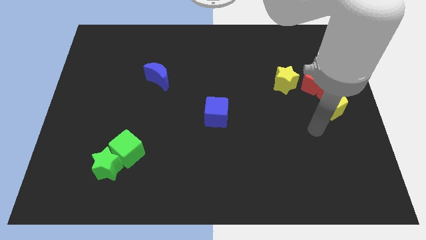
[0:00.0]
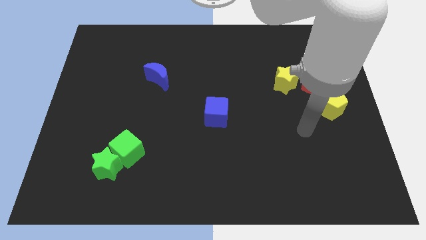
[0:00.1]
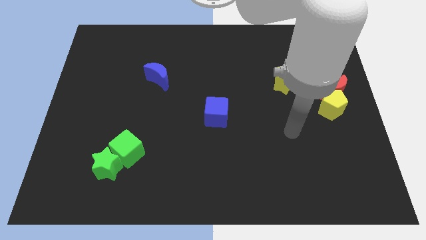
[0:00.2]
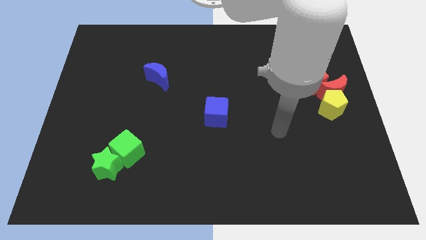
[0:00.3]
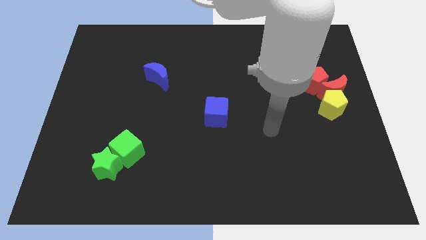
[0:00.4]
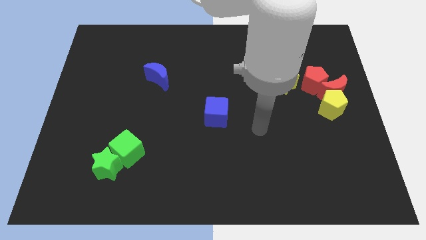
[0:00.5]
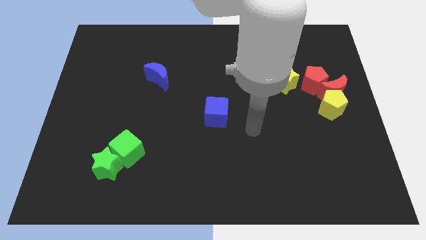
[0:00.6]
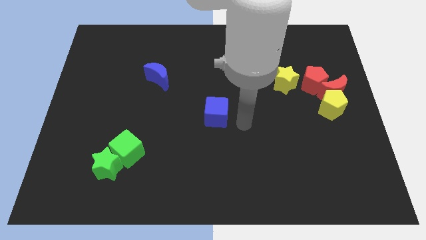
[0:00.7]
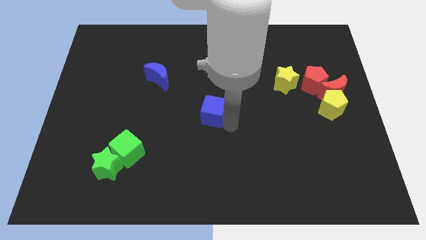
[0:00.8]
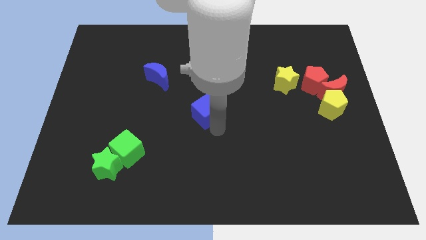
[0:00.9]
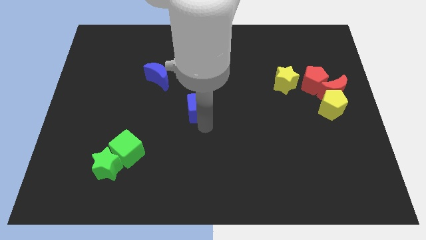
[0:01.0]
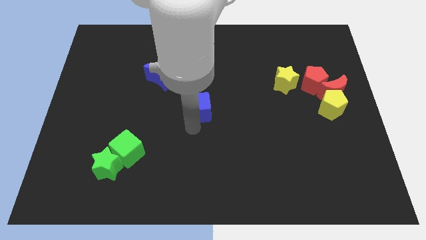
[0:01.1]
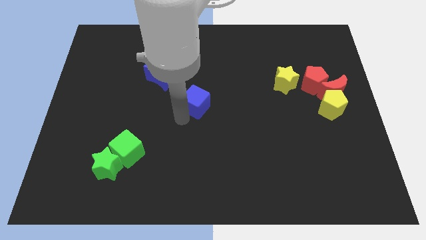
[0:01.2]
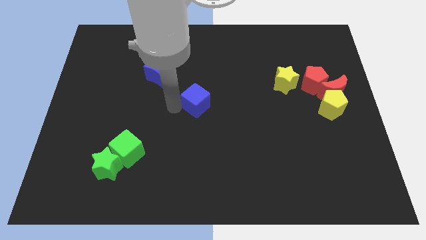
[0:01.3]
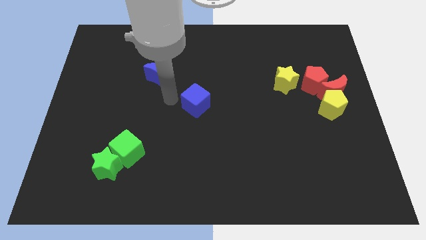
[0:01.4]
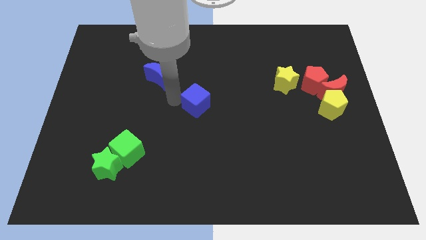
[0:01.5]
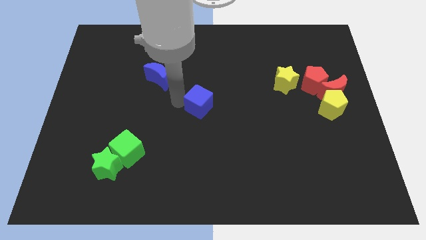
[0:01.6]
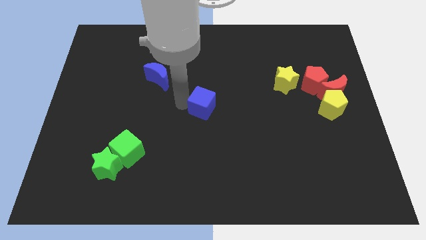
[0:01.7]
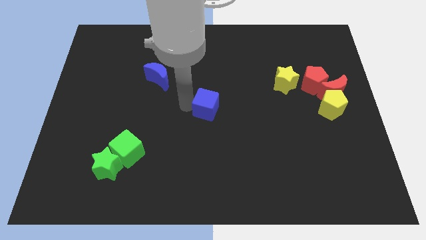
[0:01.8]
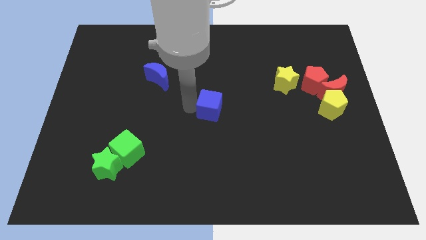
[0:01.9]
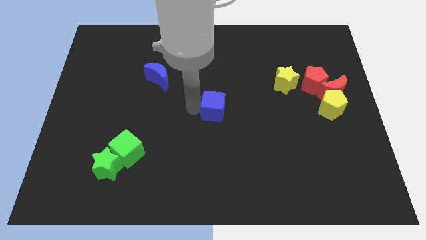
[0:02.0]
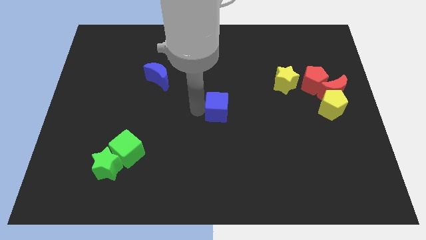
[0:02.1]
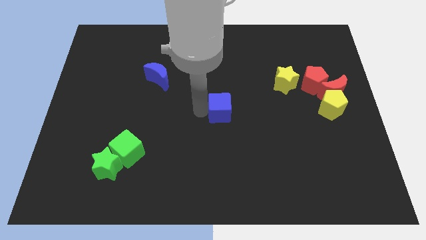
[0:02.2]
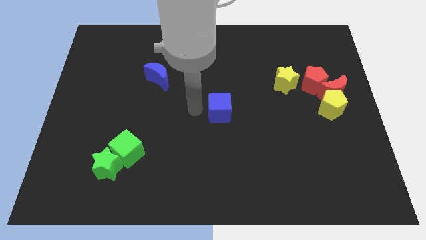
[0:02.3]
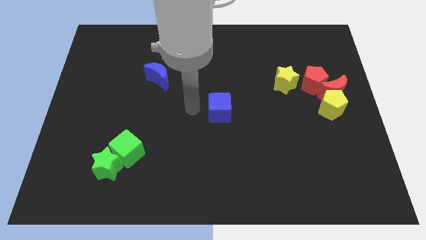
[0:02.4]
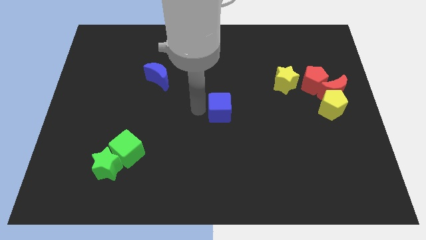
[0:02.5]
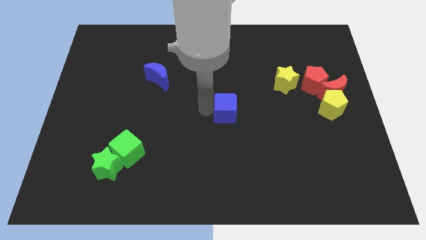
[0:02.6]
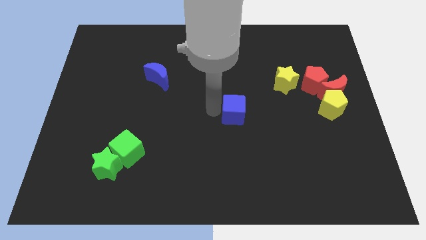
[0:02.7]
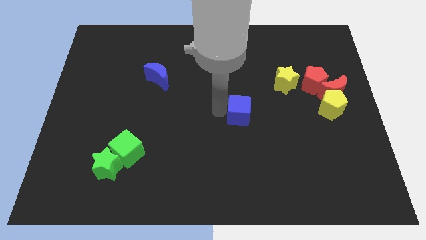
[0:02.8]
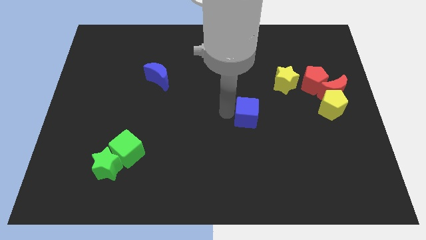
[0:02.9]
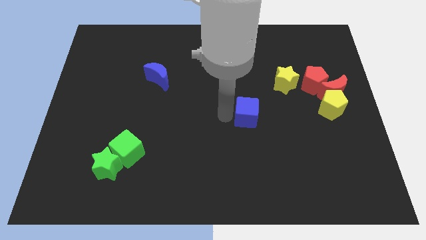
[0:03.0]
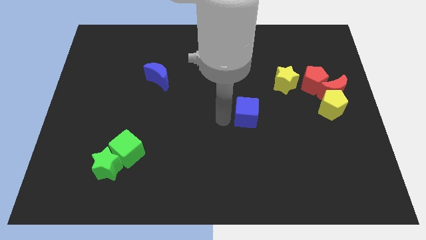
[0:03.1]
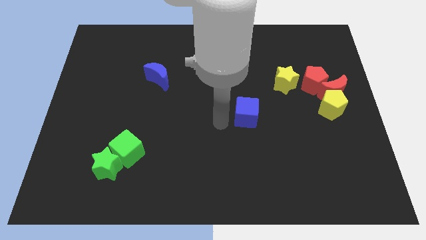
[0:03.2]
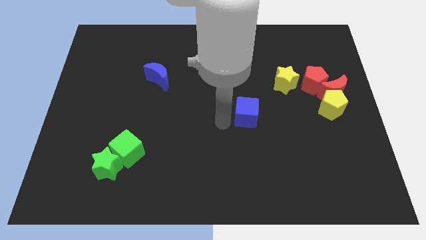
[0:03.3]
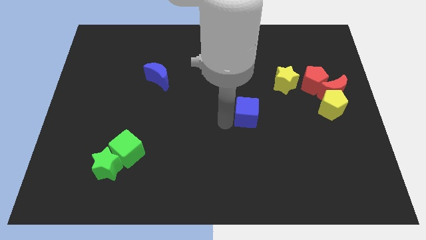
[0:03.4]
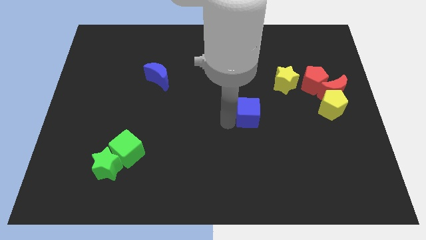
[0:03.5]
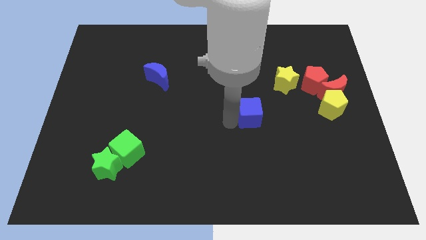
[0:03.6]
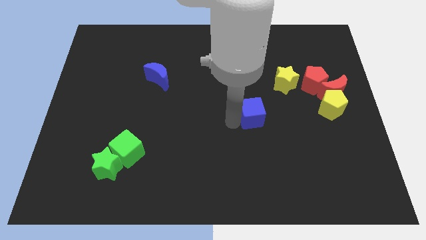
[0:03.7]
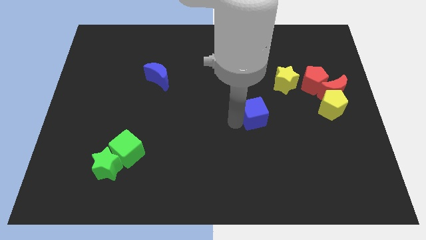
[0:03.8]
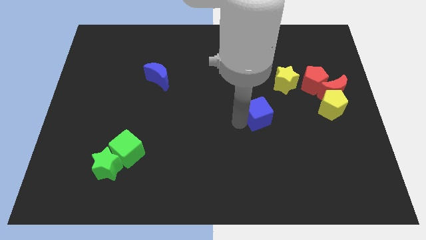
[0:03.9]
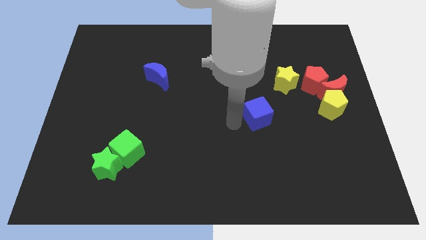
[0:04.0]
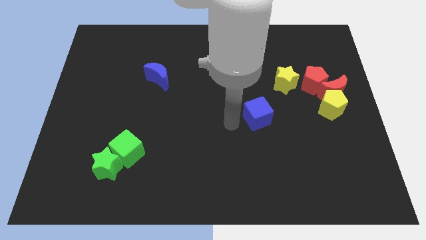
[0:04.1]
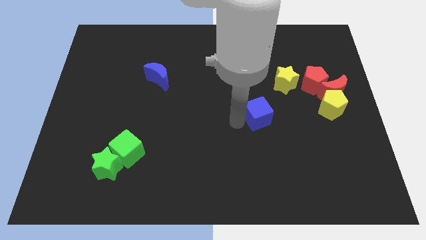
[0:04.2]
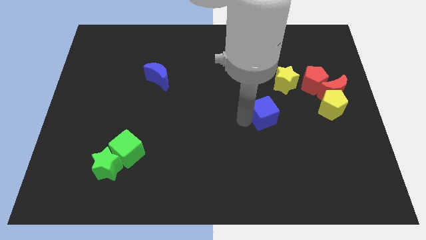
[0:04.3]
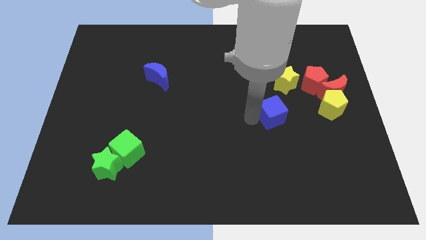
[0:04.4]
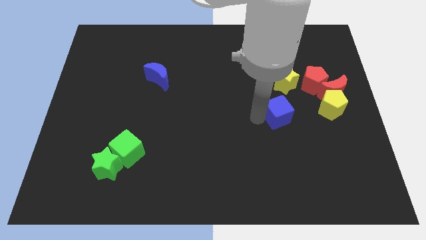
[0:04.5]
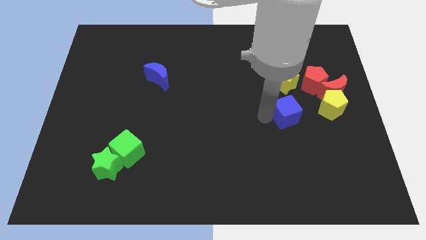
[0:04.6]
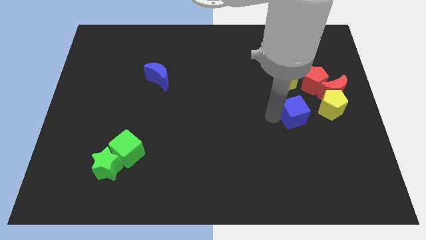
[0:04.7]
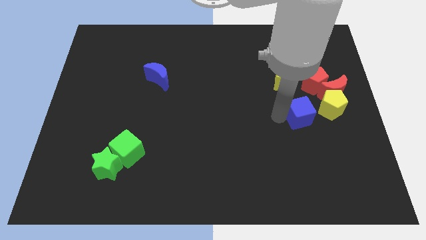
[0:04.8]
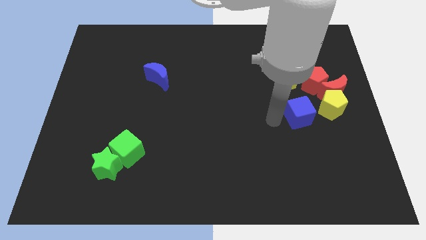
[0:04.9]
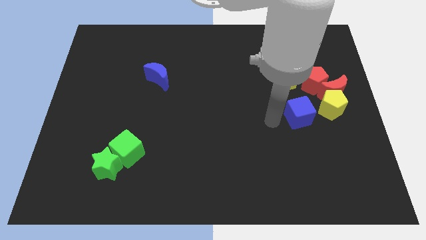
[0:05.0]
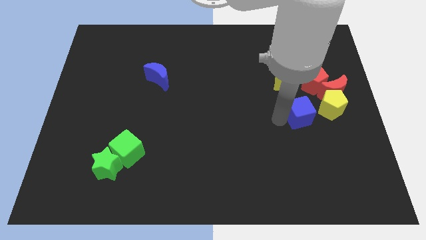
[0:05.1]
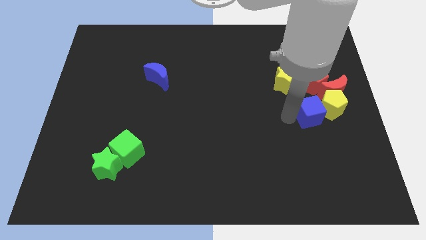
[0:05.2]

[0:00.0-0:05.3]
move the blue cube close to the yellow pentagon

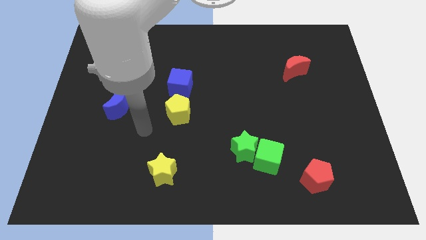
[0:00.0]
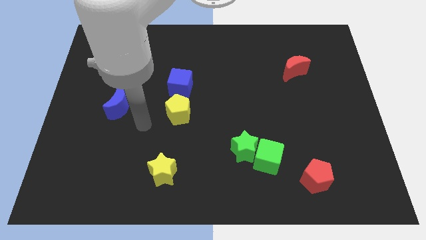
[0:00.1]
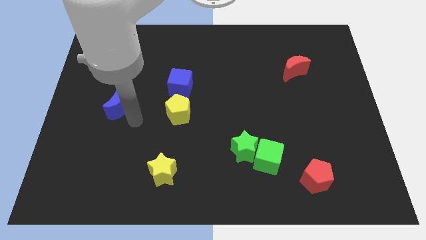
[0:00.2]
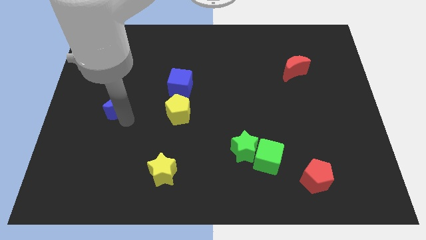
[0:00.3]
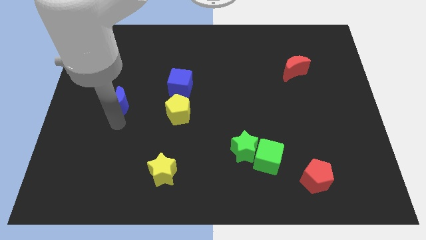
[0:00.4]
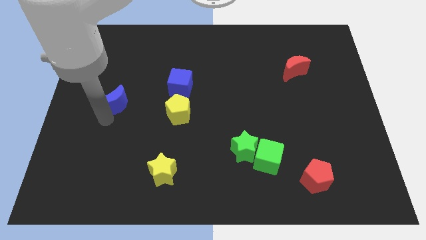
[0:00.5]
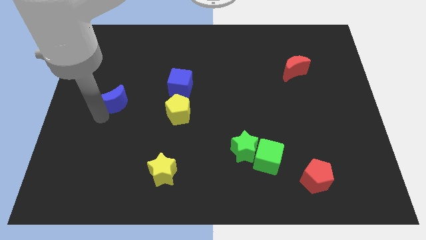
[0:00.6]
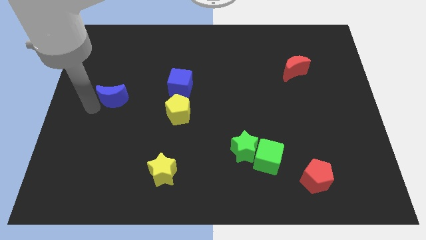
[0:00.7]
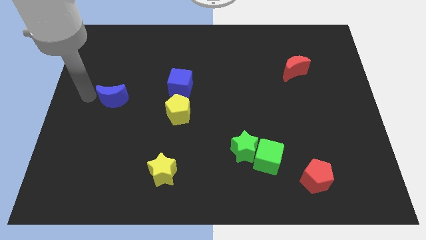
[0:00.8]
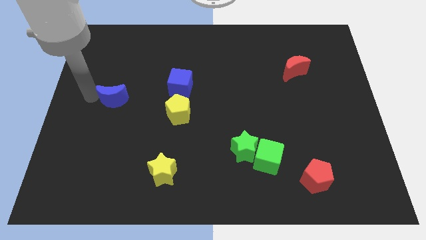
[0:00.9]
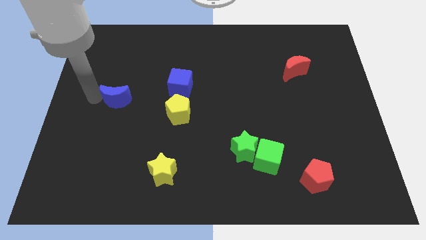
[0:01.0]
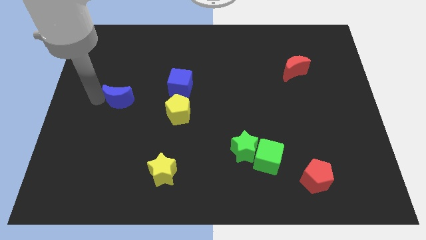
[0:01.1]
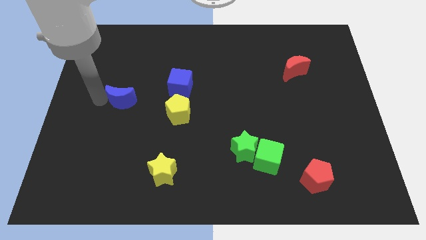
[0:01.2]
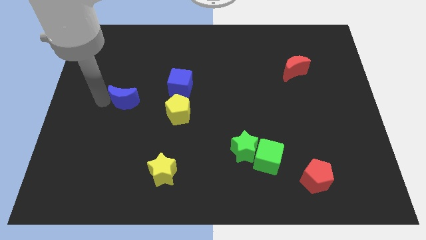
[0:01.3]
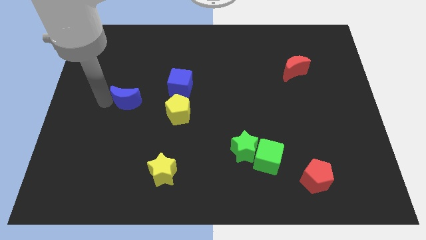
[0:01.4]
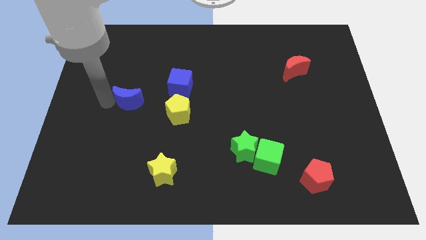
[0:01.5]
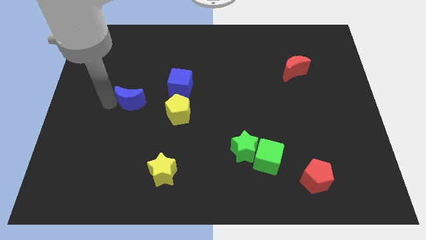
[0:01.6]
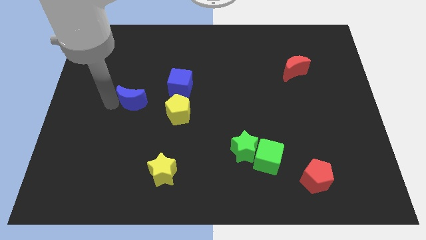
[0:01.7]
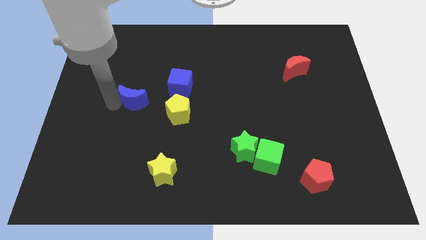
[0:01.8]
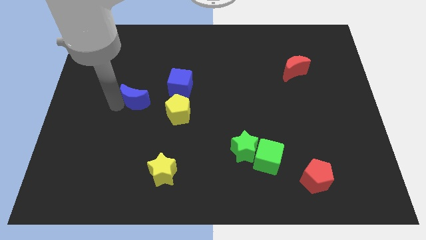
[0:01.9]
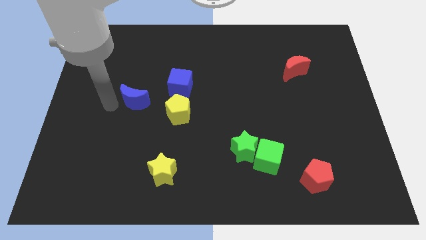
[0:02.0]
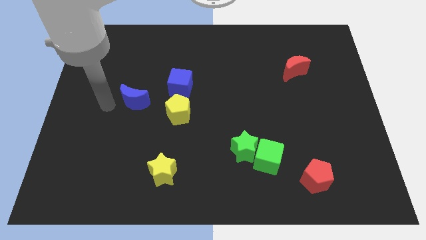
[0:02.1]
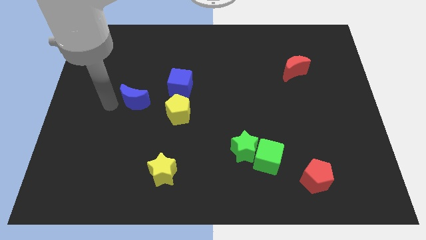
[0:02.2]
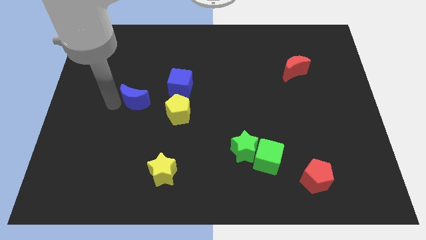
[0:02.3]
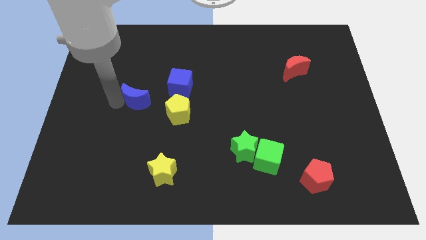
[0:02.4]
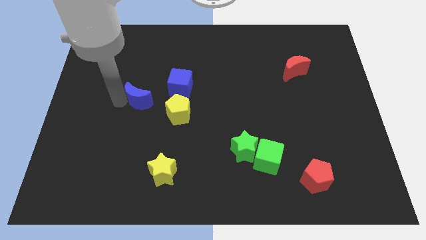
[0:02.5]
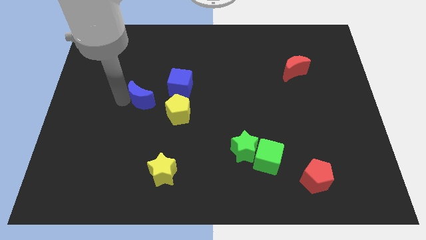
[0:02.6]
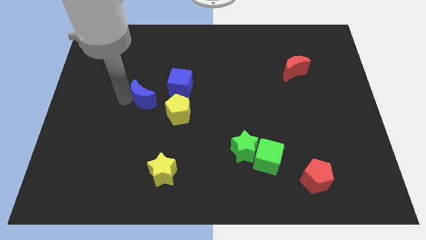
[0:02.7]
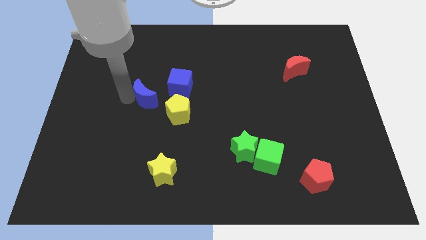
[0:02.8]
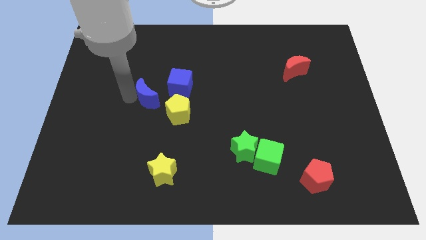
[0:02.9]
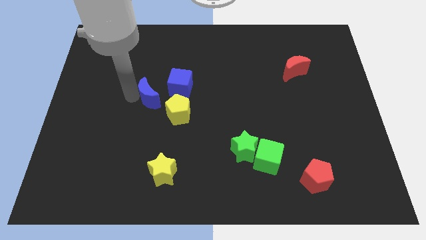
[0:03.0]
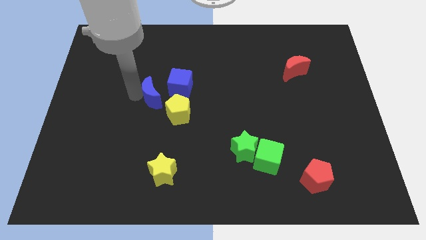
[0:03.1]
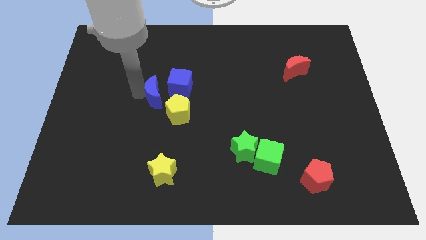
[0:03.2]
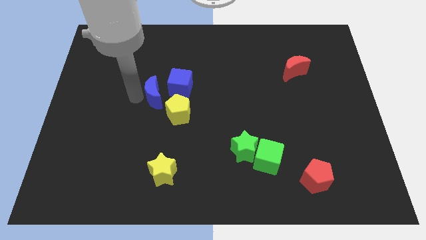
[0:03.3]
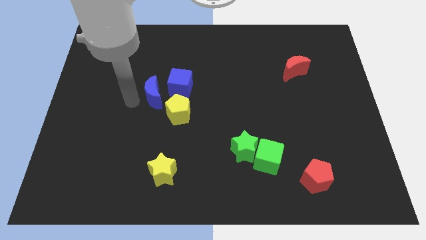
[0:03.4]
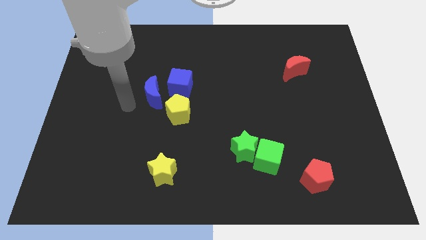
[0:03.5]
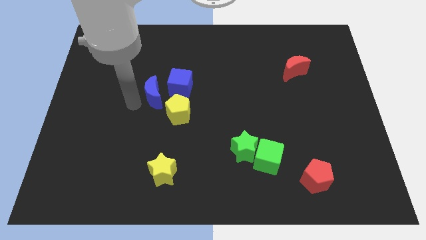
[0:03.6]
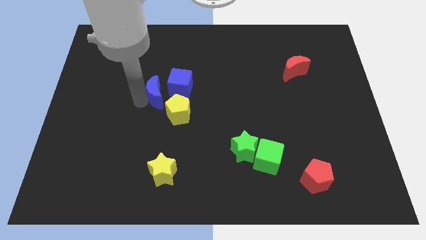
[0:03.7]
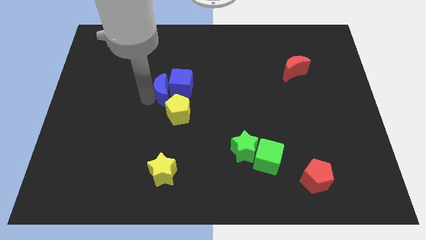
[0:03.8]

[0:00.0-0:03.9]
slide the blue moon next to the blue cube
